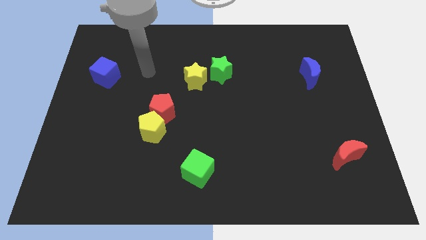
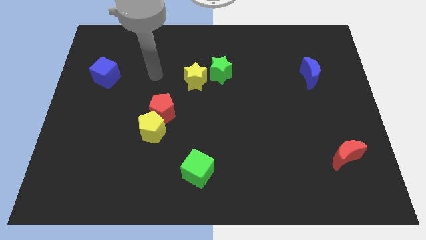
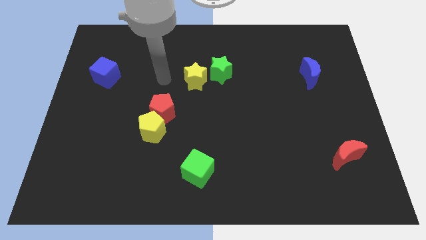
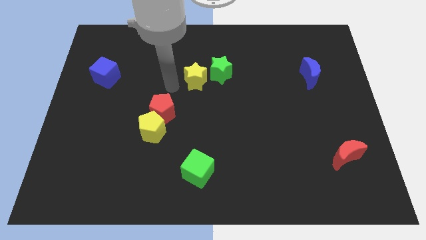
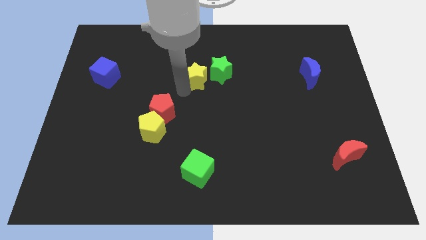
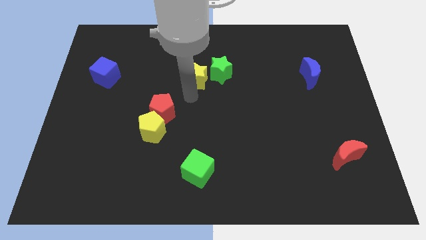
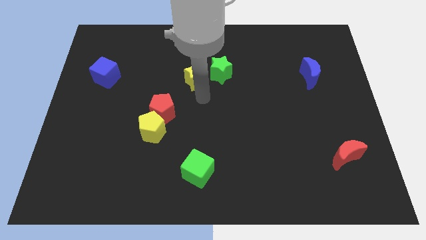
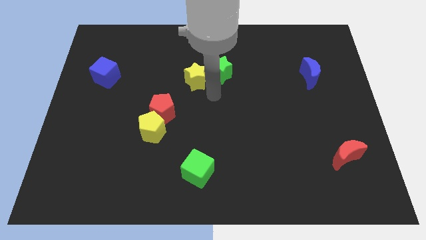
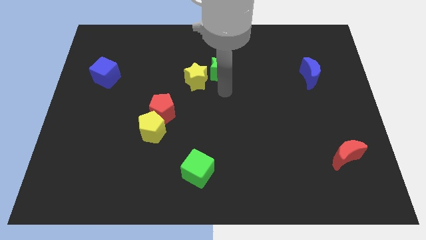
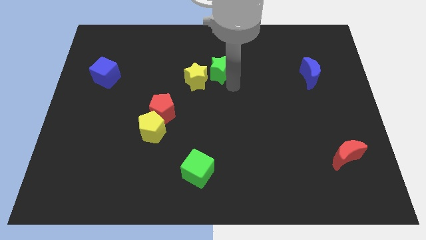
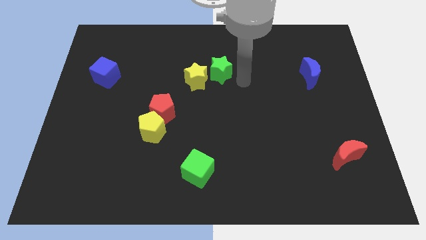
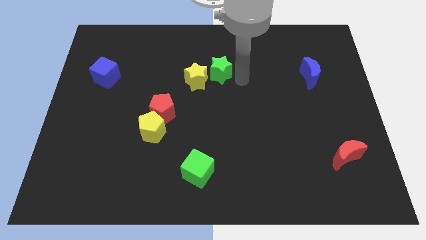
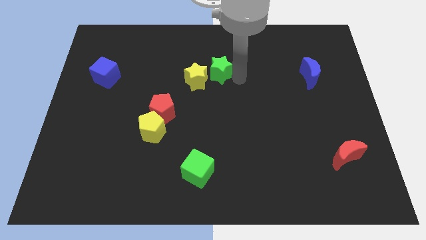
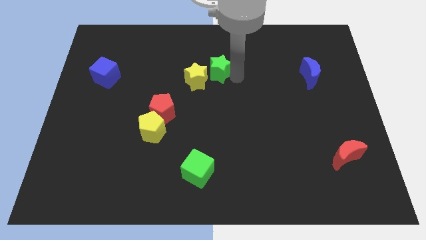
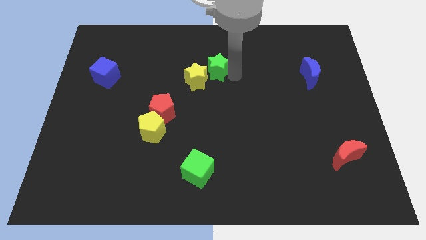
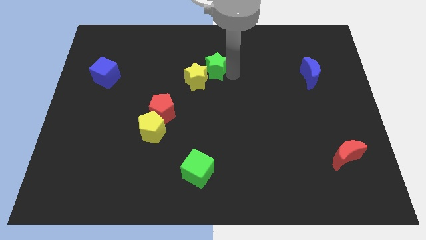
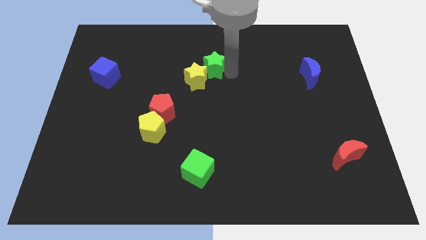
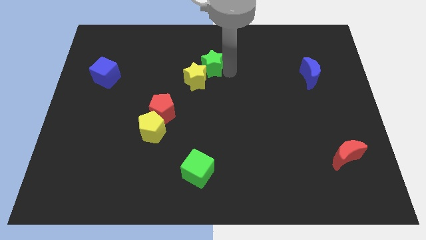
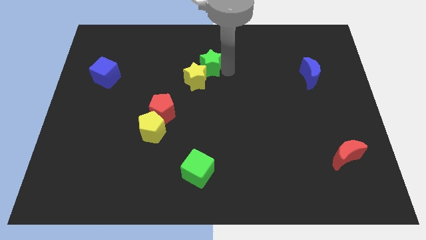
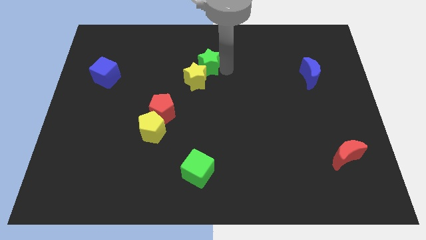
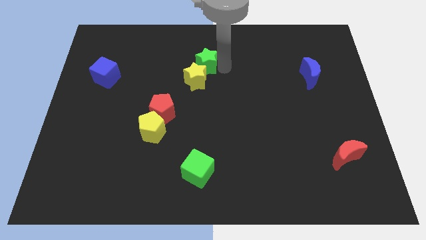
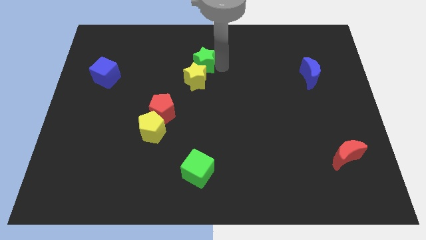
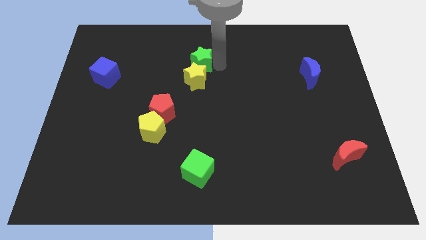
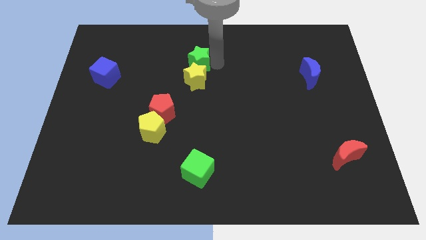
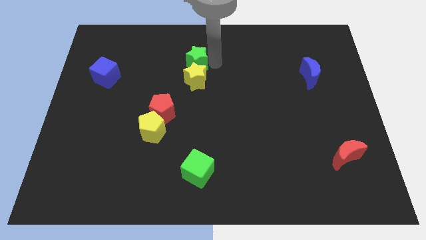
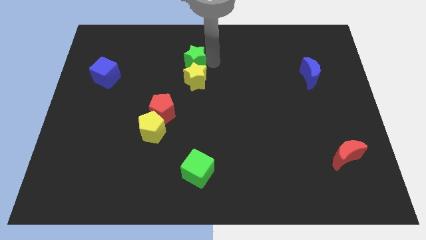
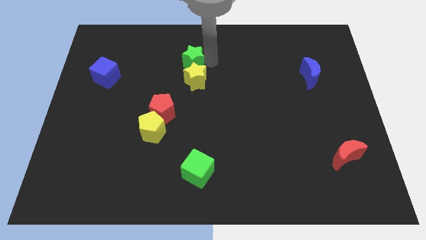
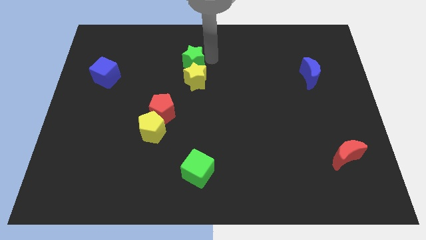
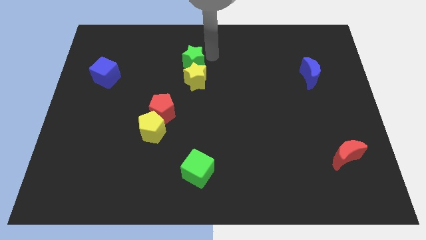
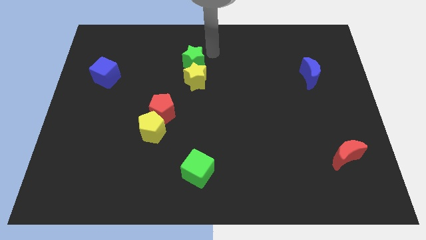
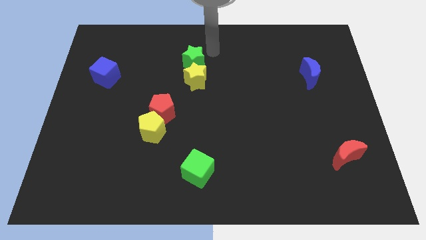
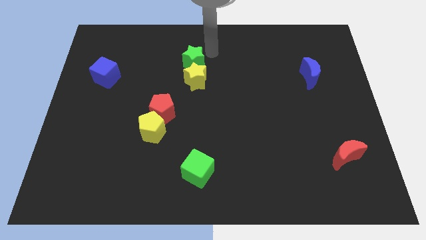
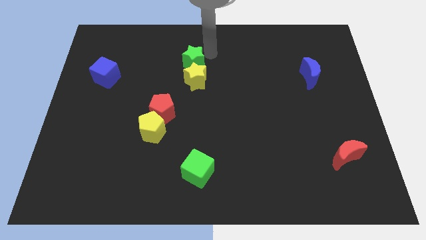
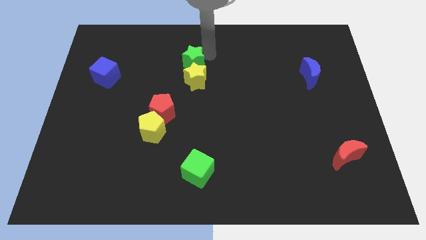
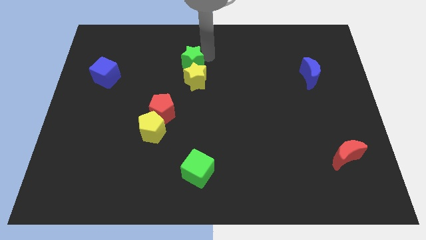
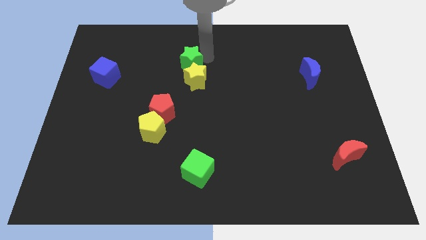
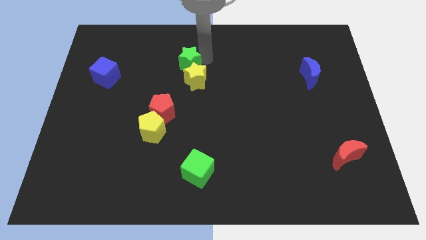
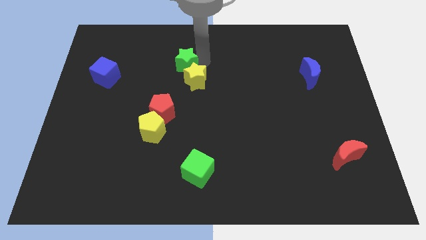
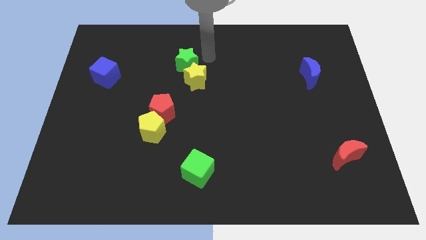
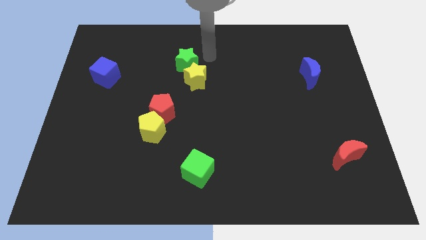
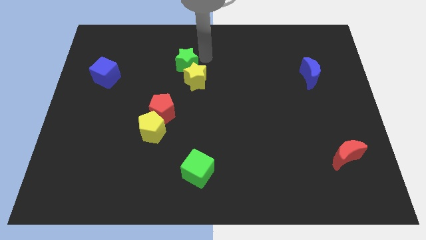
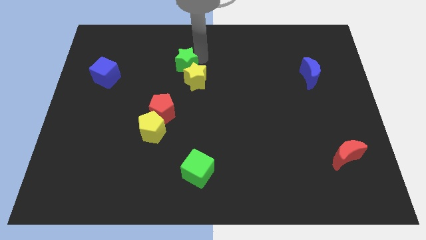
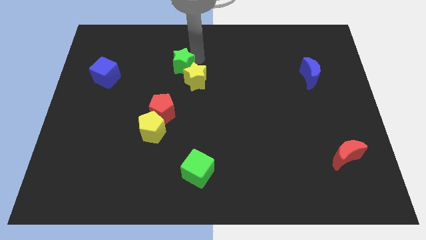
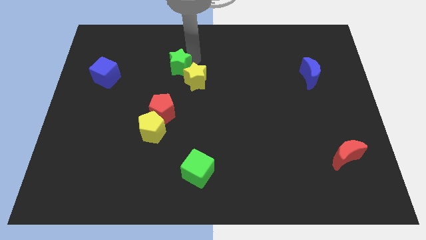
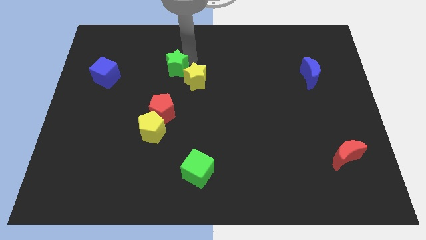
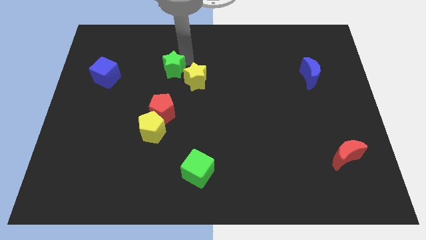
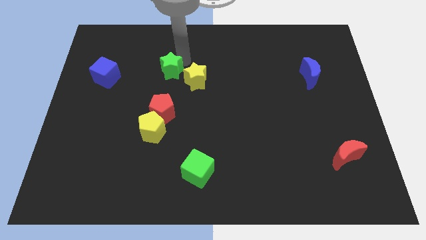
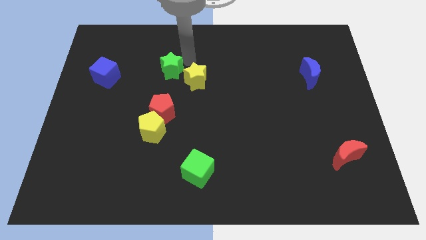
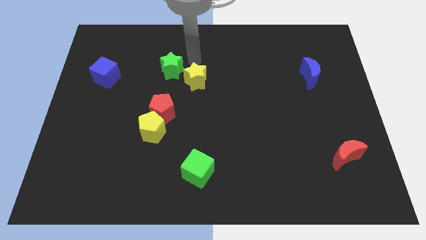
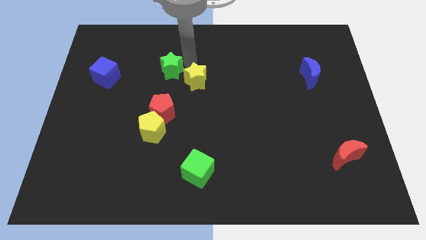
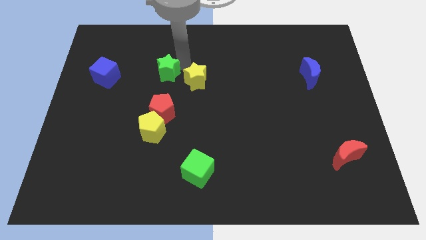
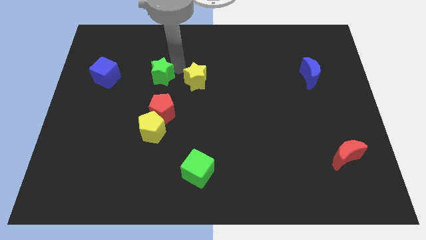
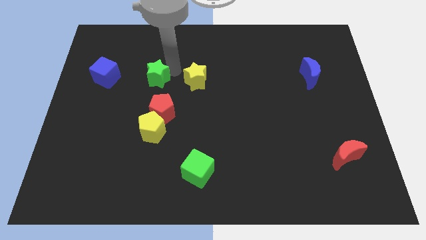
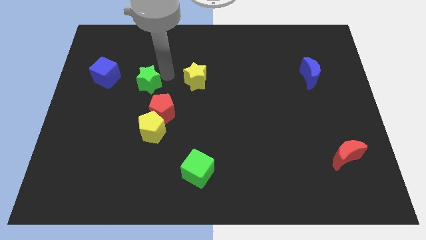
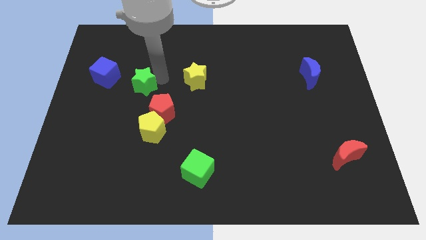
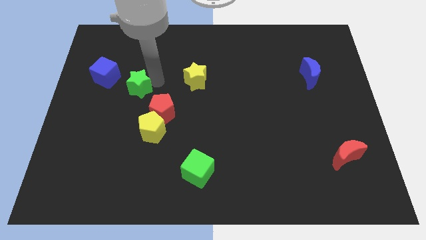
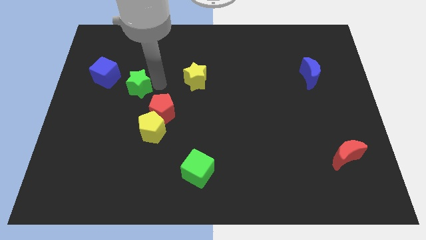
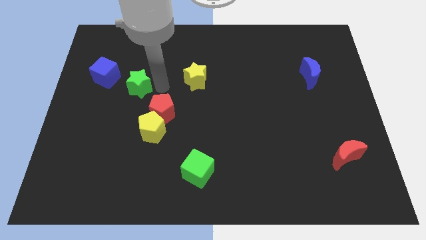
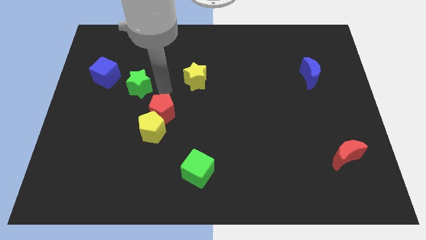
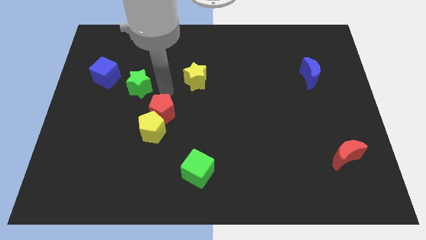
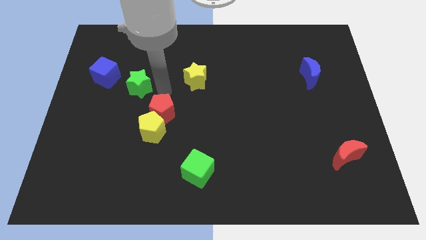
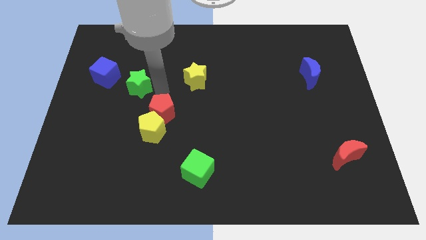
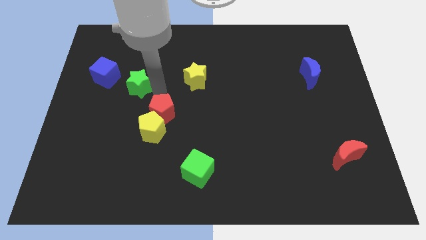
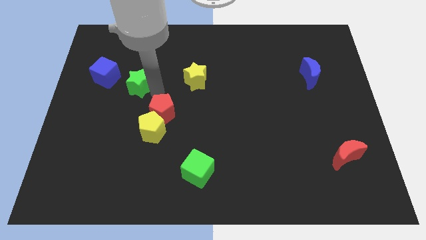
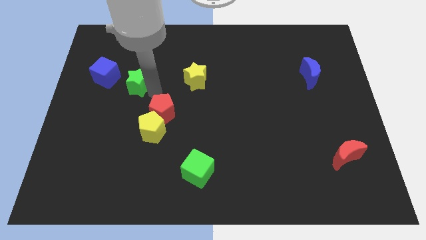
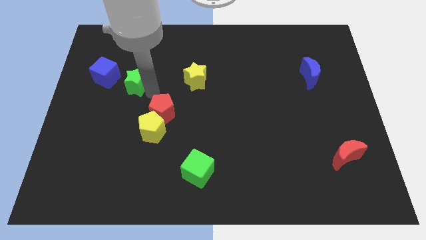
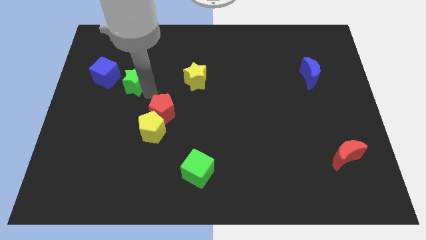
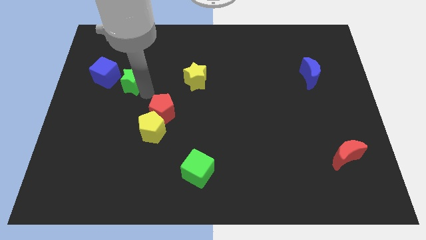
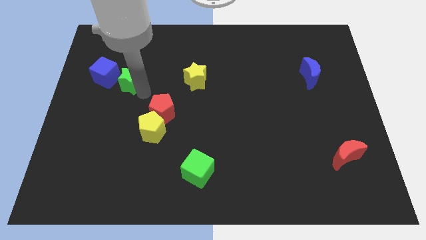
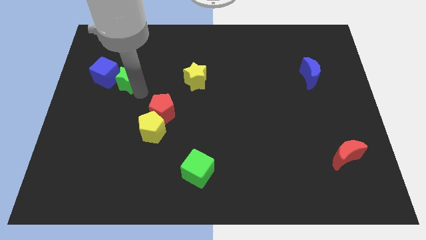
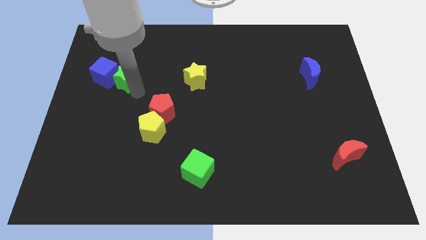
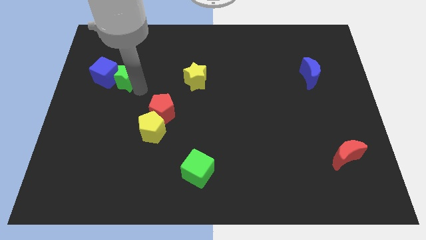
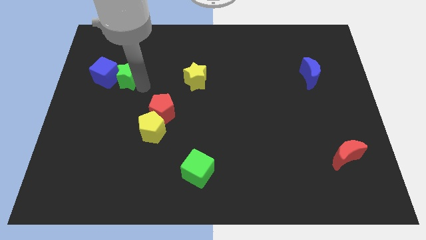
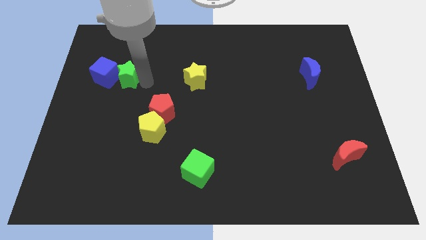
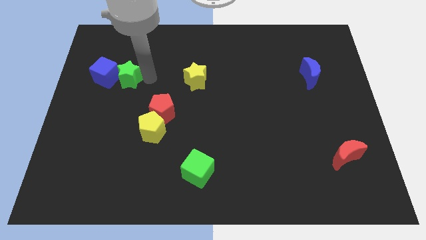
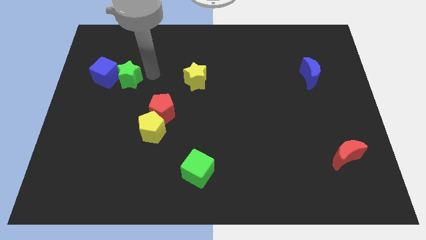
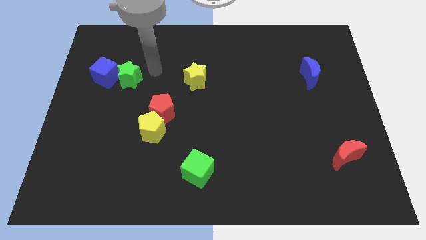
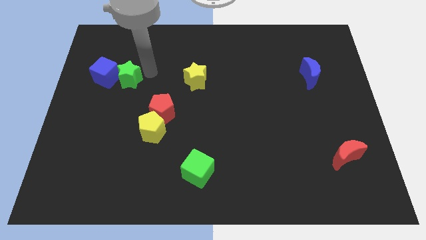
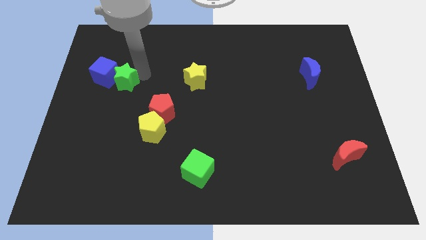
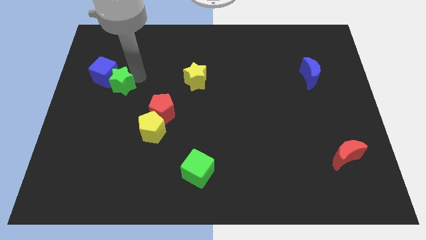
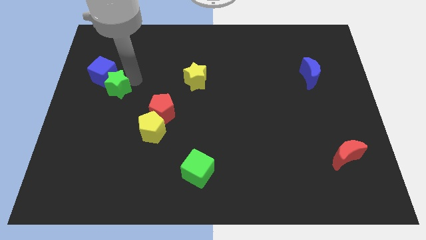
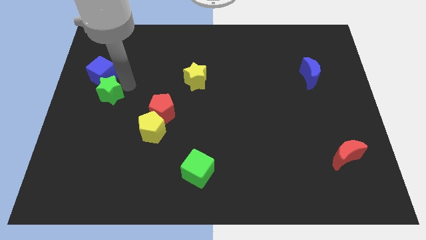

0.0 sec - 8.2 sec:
move the green star to the left side
